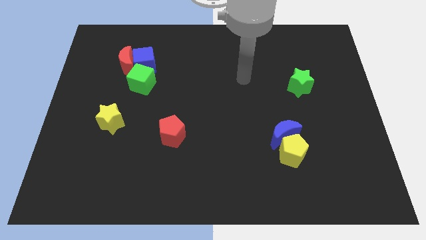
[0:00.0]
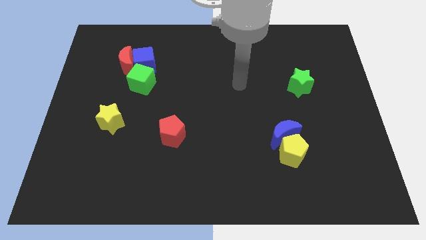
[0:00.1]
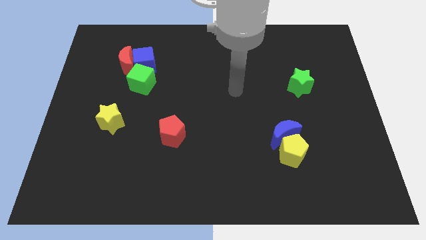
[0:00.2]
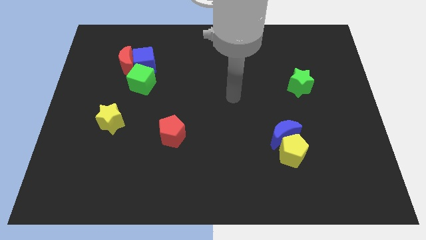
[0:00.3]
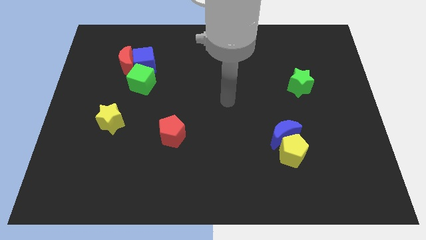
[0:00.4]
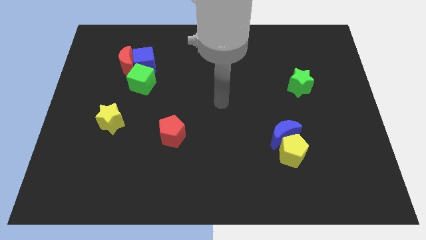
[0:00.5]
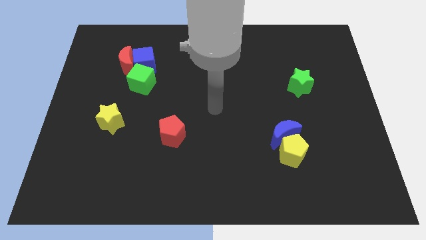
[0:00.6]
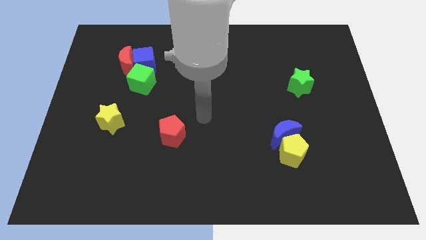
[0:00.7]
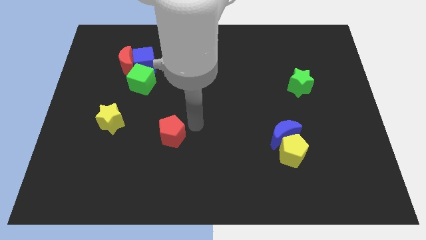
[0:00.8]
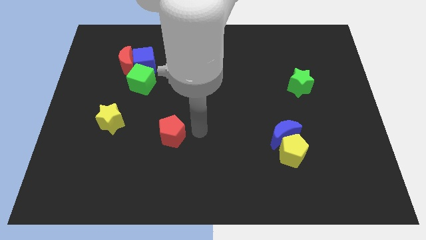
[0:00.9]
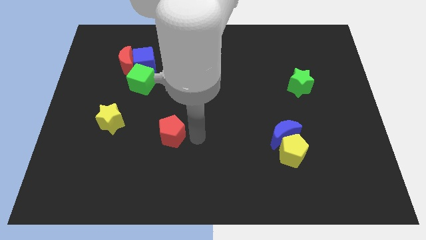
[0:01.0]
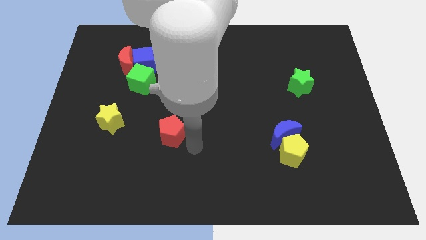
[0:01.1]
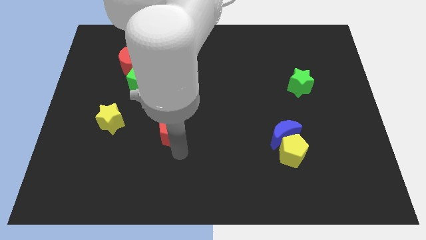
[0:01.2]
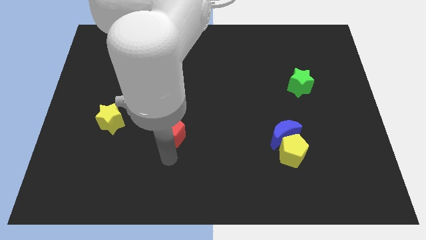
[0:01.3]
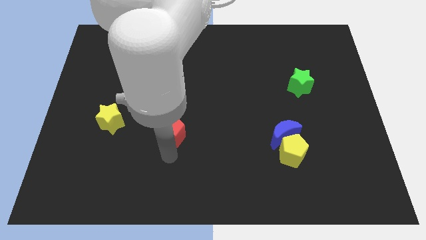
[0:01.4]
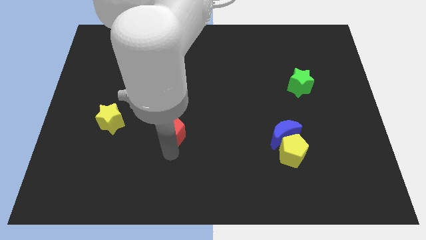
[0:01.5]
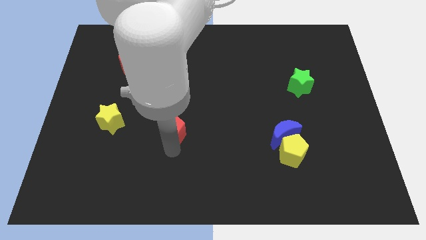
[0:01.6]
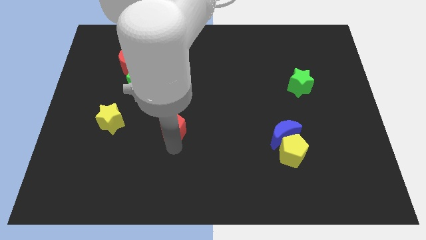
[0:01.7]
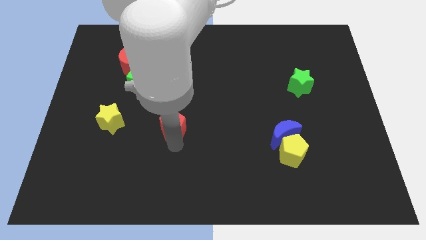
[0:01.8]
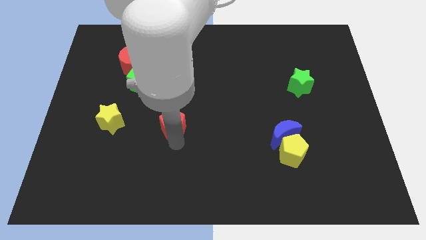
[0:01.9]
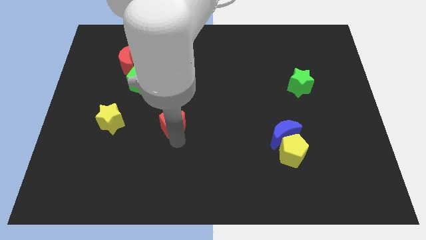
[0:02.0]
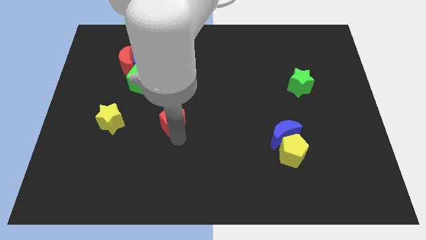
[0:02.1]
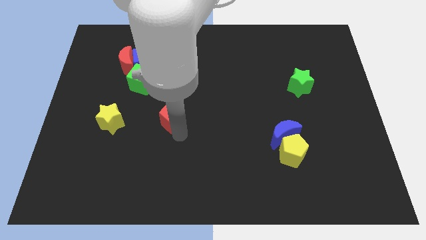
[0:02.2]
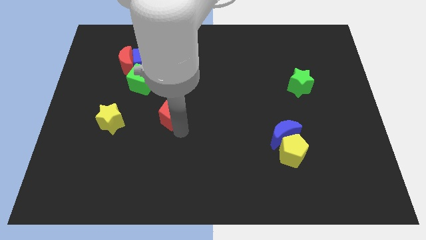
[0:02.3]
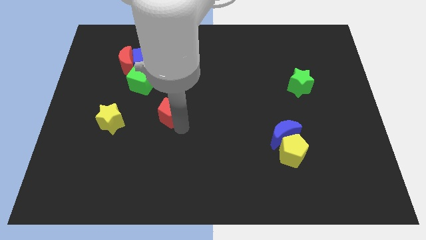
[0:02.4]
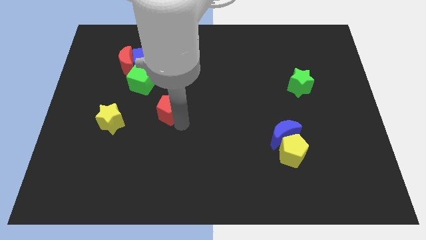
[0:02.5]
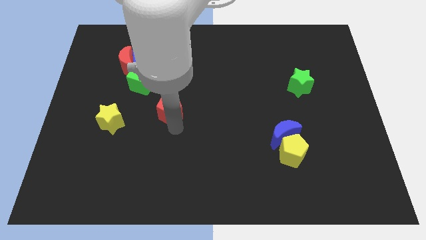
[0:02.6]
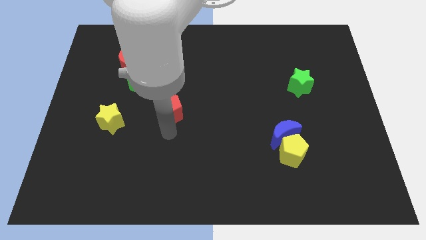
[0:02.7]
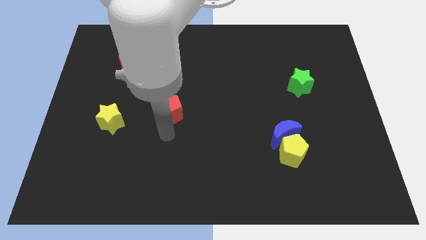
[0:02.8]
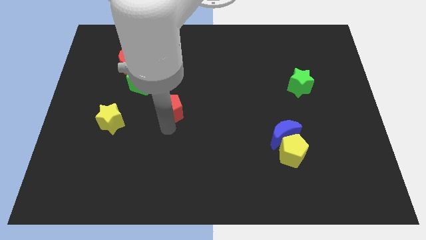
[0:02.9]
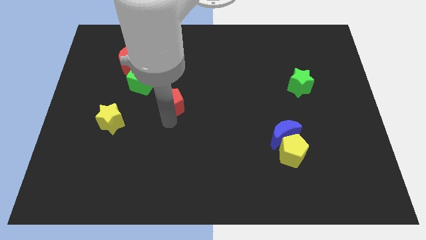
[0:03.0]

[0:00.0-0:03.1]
push the red pentagon slightly upwards

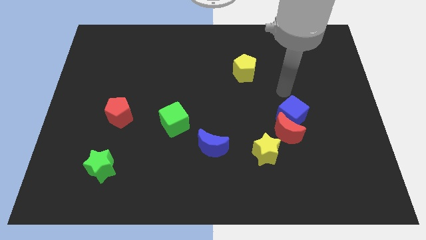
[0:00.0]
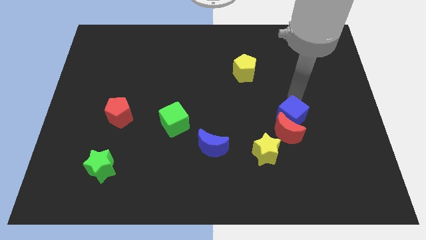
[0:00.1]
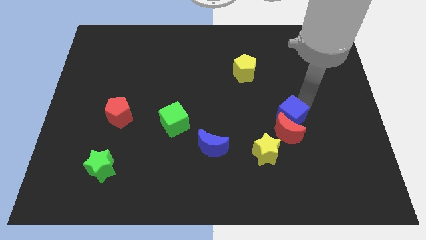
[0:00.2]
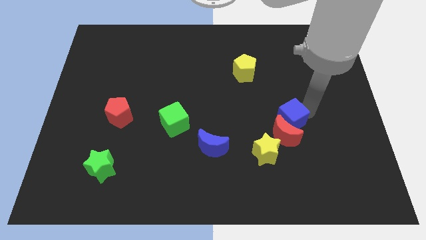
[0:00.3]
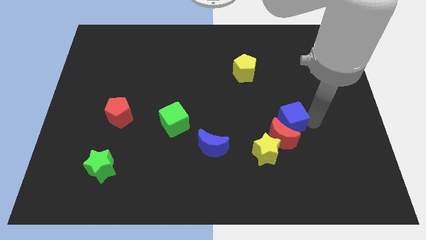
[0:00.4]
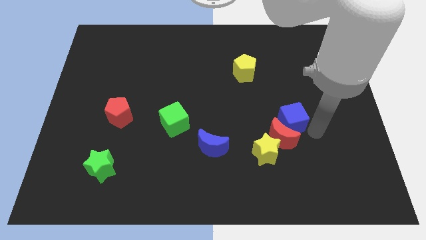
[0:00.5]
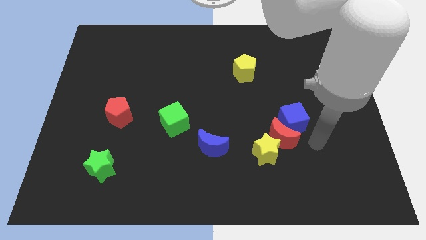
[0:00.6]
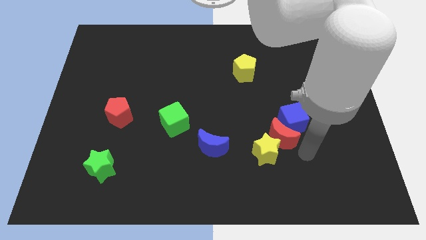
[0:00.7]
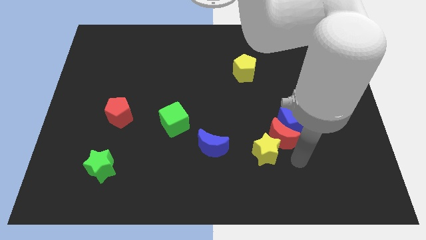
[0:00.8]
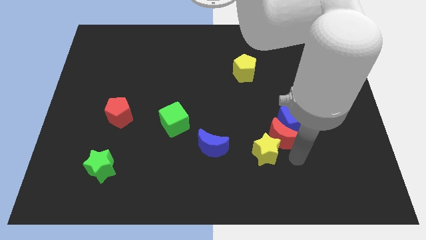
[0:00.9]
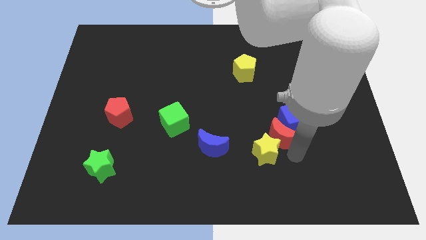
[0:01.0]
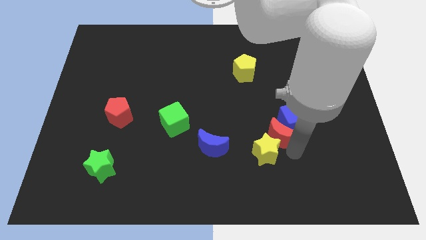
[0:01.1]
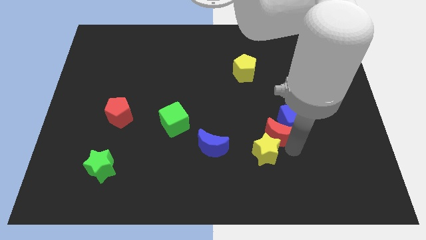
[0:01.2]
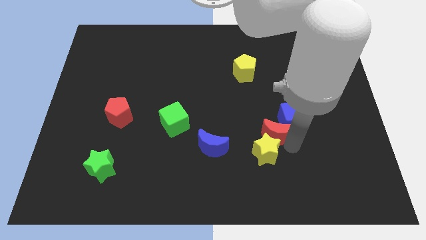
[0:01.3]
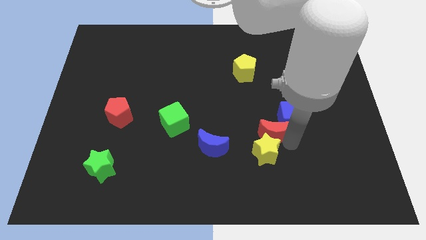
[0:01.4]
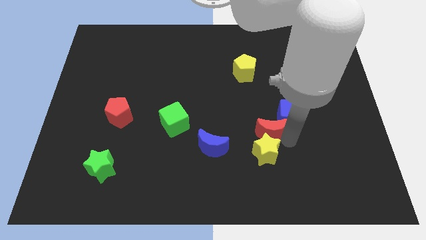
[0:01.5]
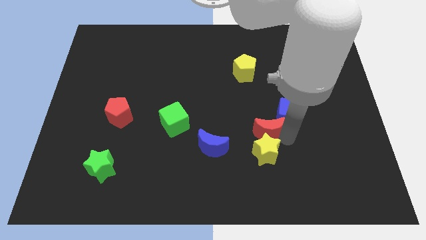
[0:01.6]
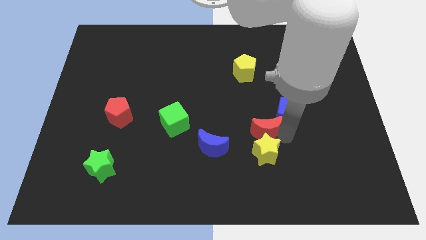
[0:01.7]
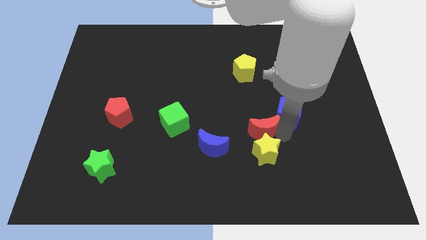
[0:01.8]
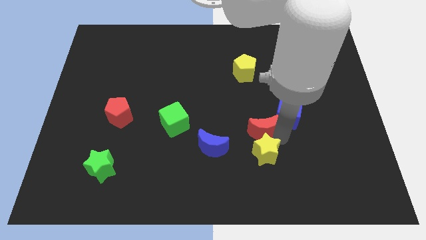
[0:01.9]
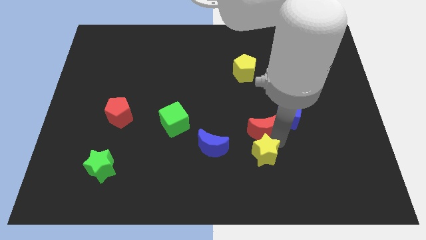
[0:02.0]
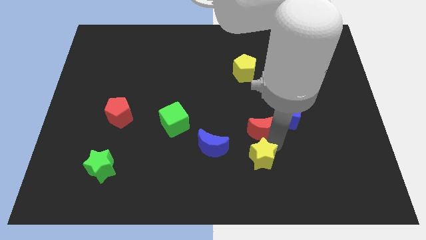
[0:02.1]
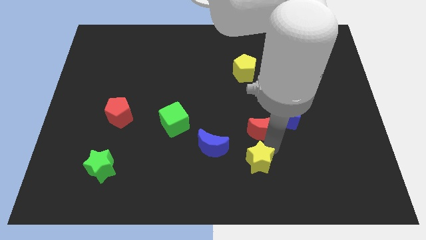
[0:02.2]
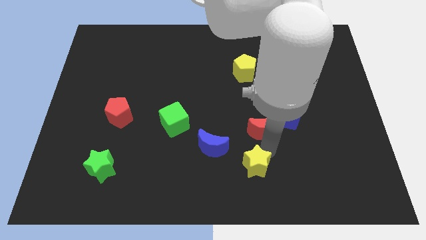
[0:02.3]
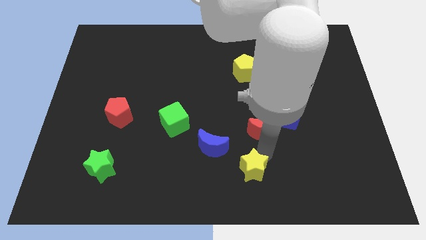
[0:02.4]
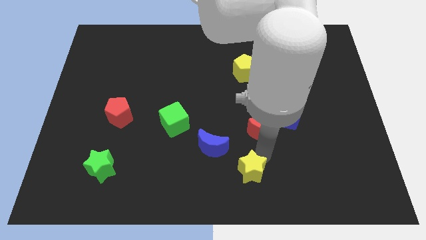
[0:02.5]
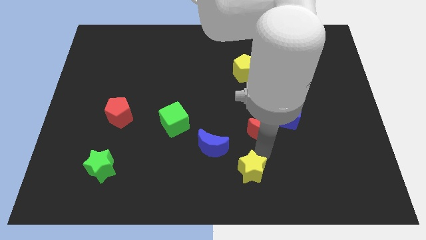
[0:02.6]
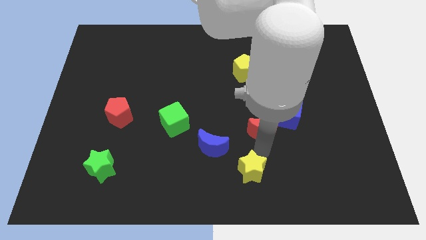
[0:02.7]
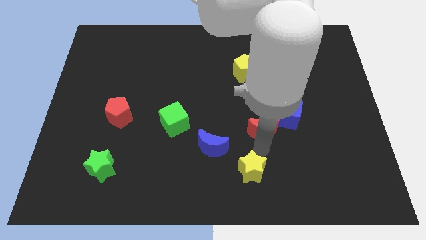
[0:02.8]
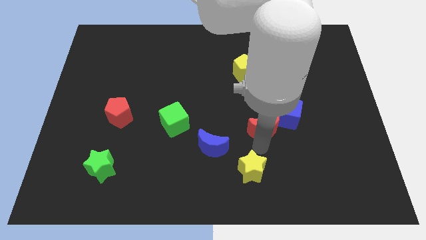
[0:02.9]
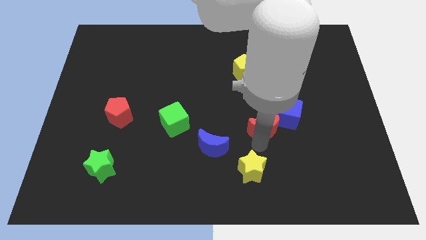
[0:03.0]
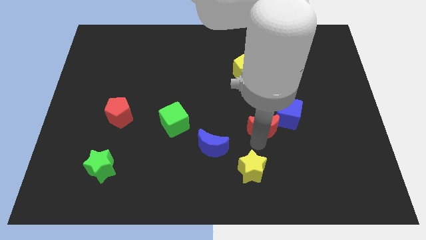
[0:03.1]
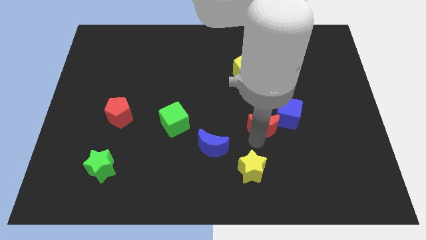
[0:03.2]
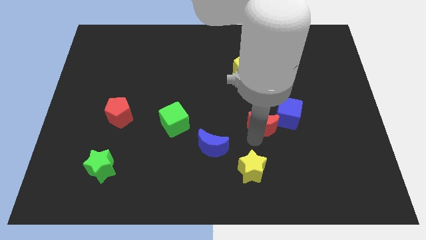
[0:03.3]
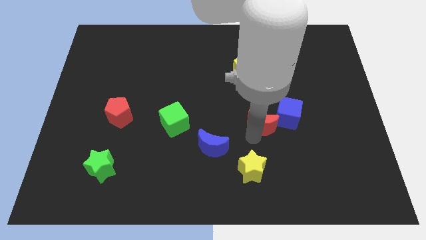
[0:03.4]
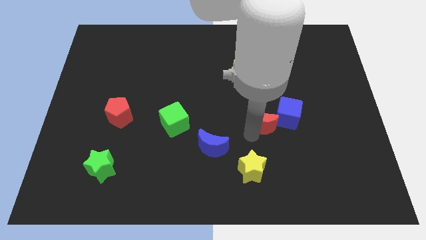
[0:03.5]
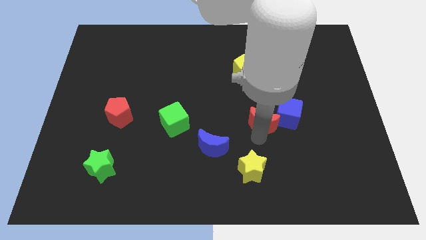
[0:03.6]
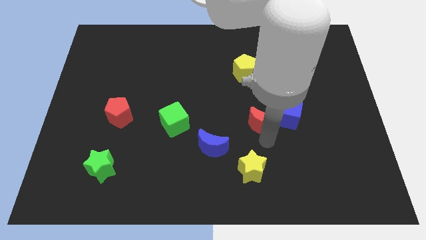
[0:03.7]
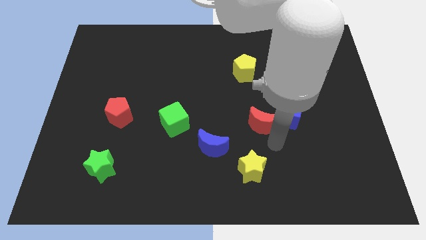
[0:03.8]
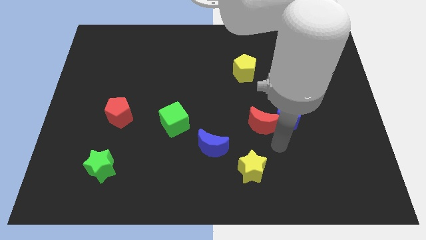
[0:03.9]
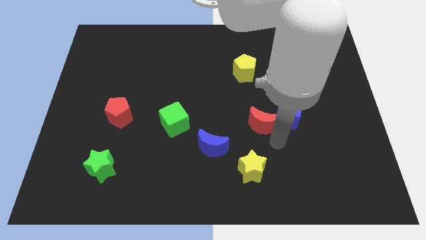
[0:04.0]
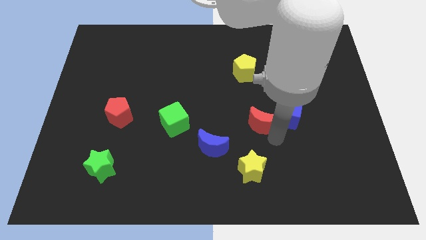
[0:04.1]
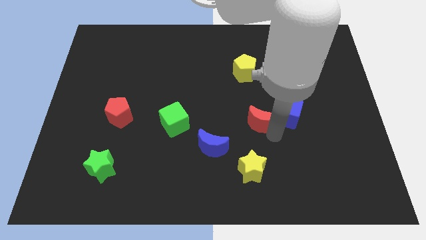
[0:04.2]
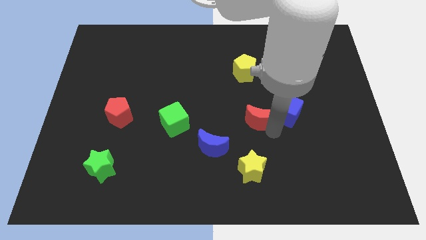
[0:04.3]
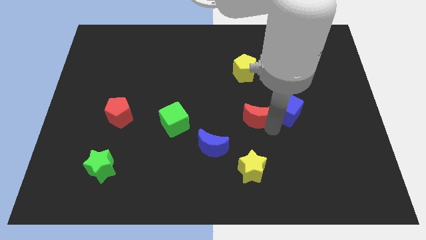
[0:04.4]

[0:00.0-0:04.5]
slightly move the red moon upwards and left diagonally

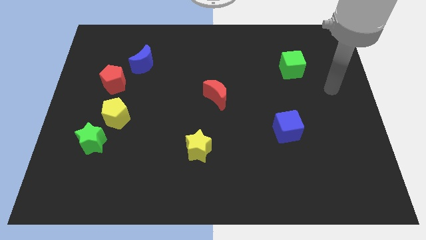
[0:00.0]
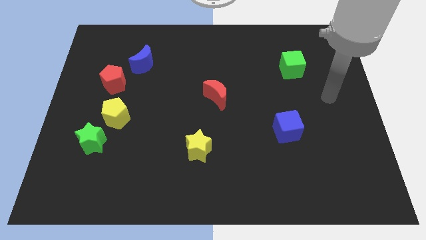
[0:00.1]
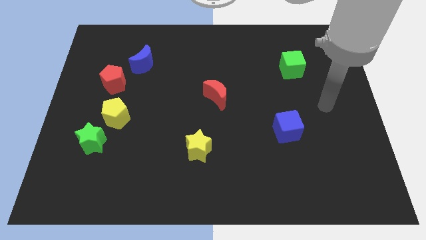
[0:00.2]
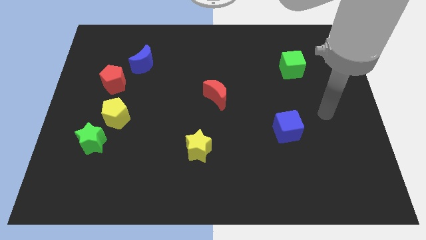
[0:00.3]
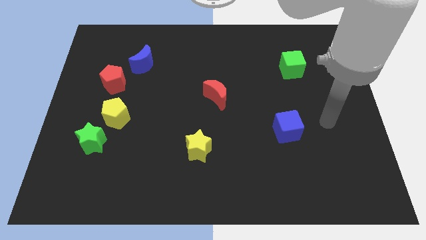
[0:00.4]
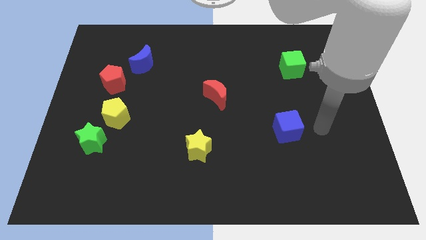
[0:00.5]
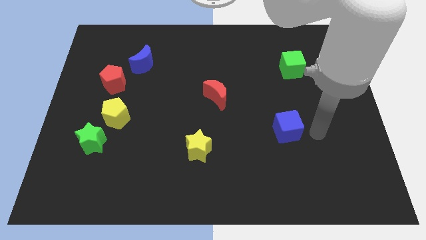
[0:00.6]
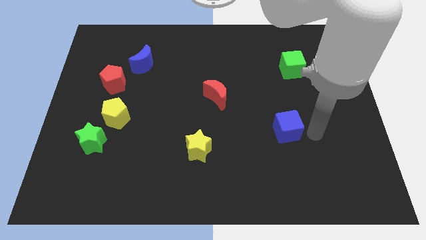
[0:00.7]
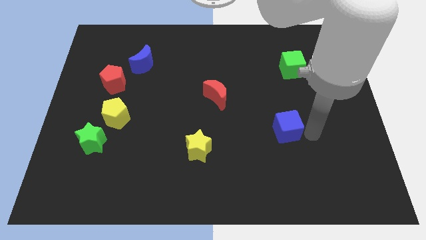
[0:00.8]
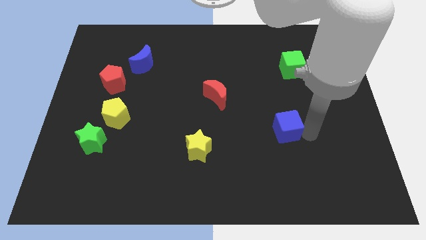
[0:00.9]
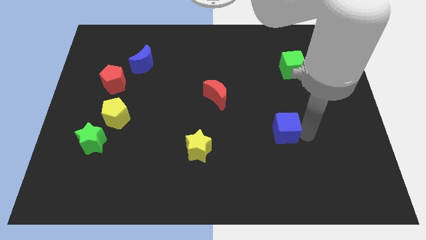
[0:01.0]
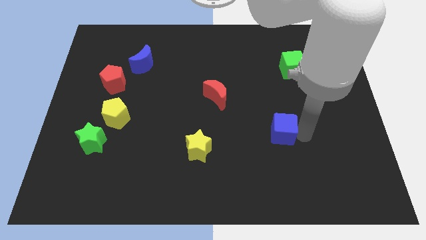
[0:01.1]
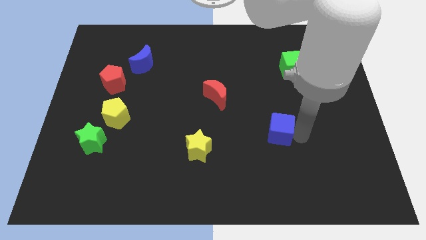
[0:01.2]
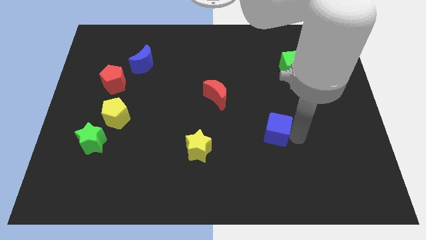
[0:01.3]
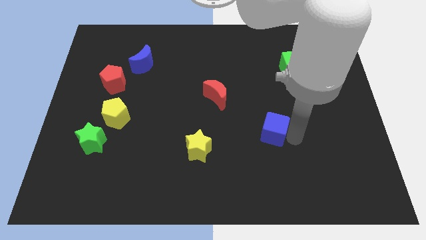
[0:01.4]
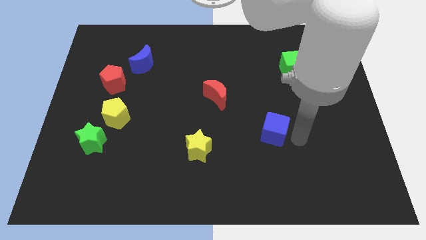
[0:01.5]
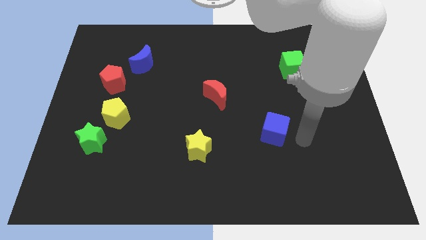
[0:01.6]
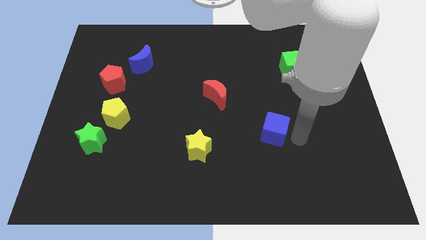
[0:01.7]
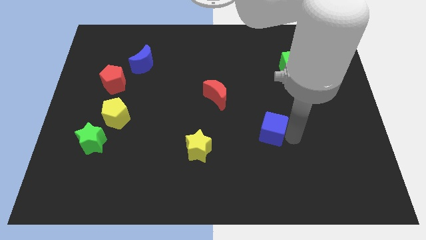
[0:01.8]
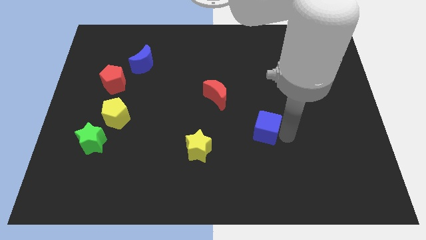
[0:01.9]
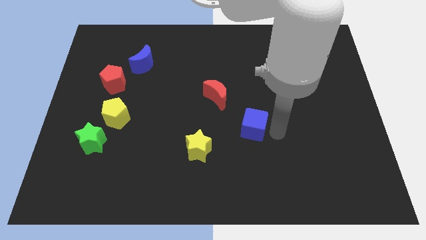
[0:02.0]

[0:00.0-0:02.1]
slightly move the blue cube left
